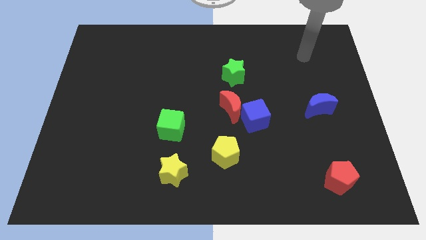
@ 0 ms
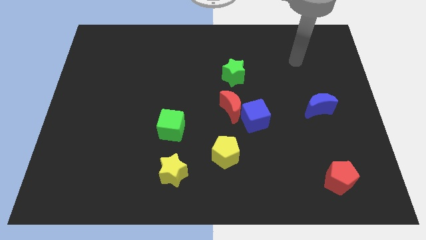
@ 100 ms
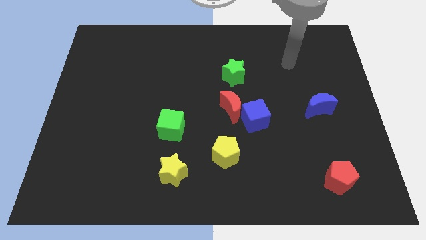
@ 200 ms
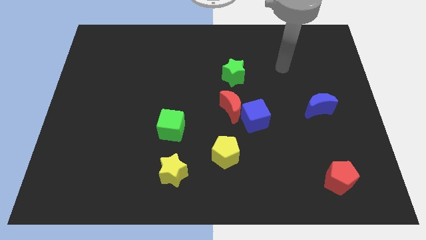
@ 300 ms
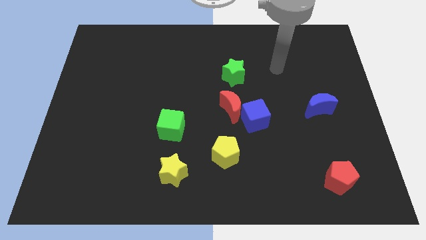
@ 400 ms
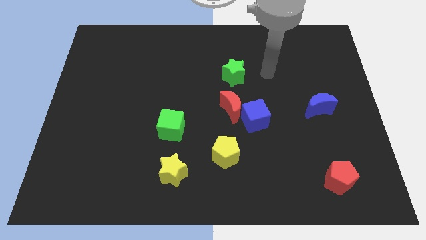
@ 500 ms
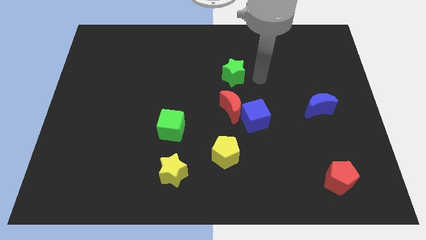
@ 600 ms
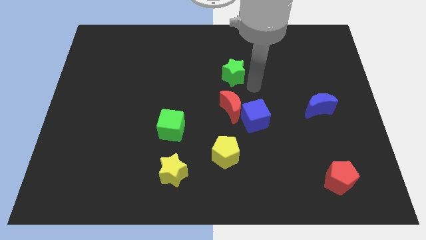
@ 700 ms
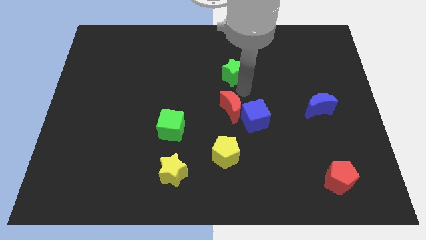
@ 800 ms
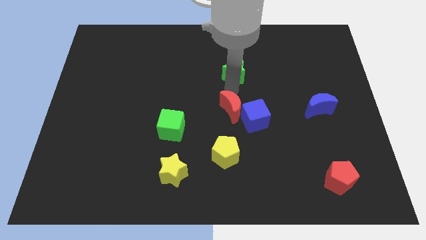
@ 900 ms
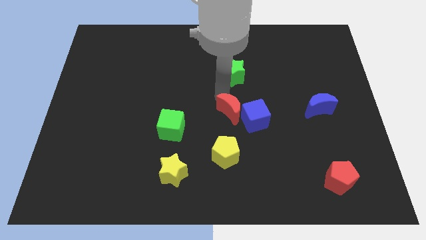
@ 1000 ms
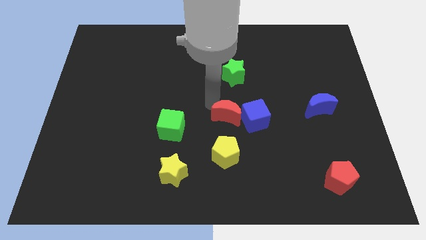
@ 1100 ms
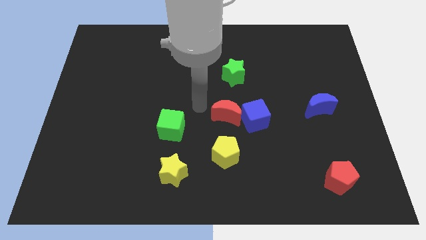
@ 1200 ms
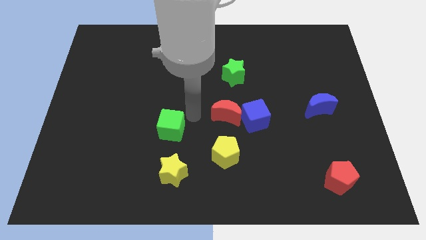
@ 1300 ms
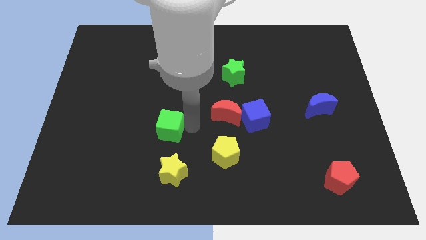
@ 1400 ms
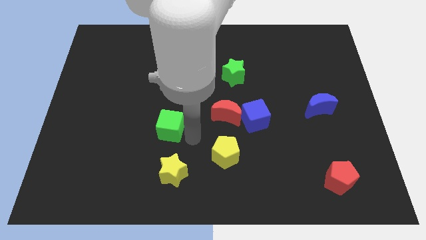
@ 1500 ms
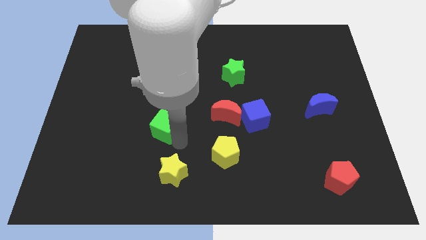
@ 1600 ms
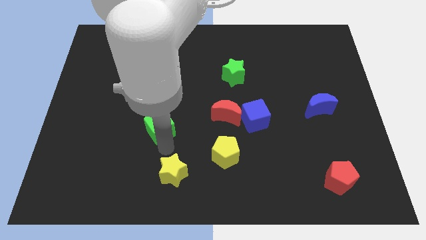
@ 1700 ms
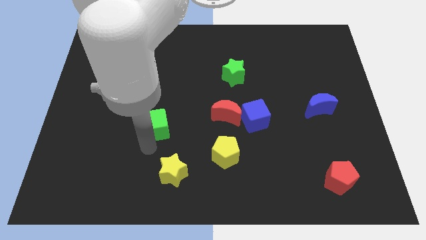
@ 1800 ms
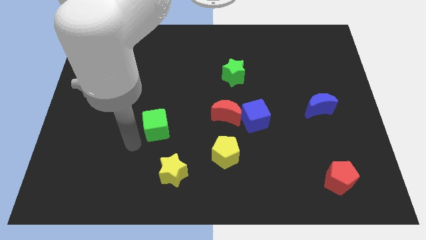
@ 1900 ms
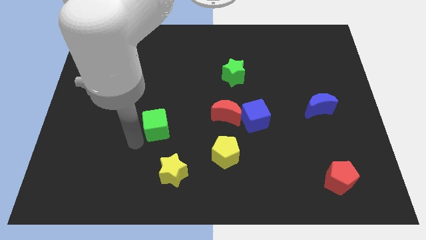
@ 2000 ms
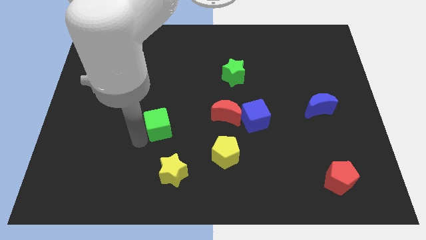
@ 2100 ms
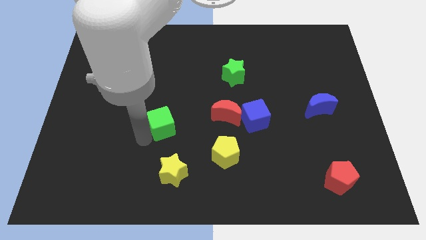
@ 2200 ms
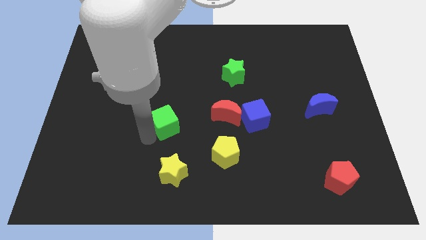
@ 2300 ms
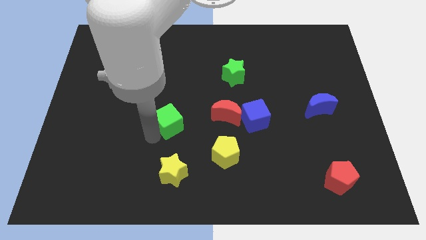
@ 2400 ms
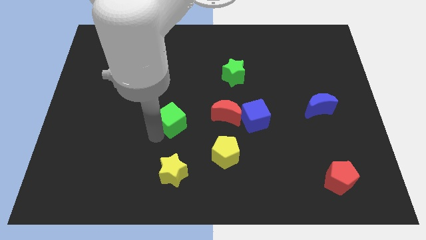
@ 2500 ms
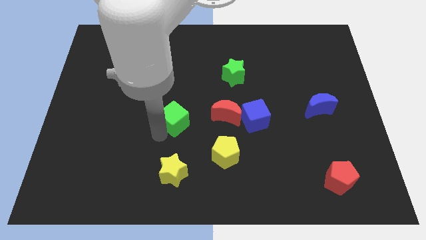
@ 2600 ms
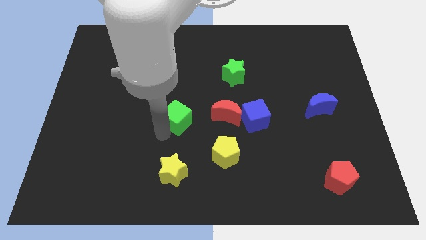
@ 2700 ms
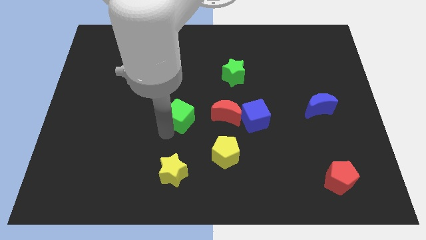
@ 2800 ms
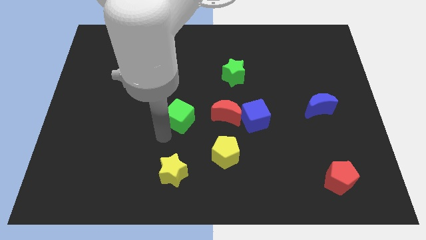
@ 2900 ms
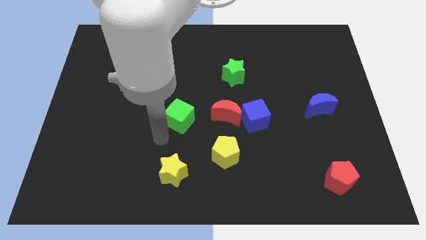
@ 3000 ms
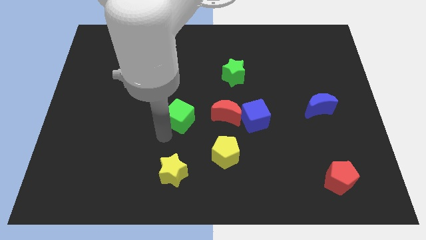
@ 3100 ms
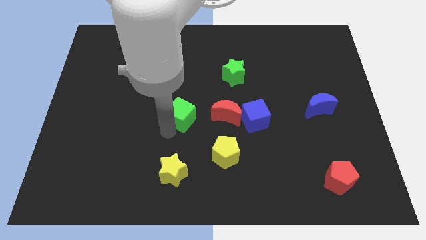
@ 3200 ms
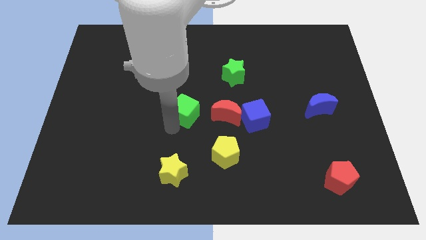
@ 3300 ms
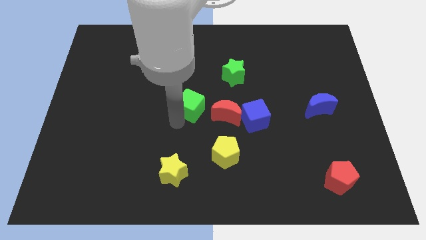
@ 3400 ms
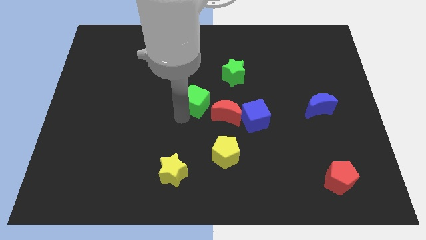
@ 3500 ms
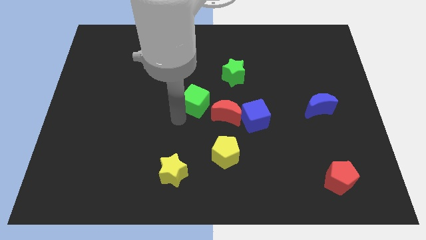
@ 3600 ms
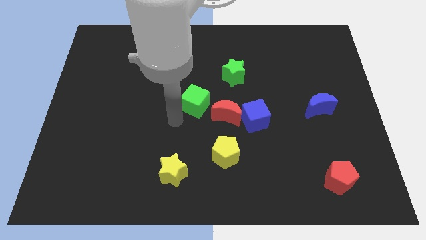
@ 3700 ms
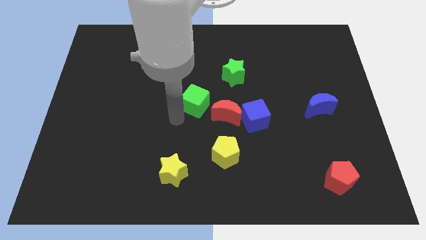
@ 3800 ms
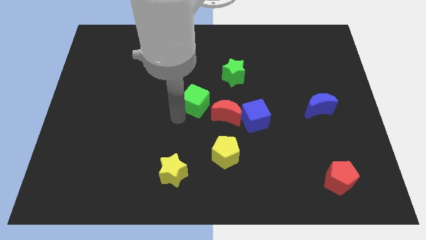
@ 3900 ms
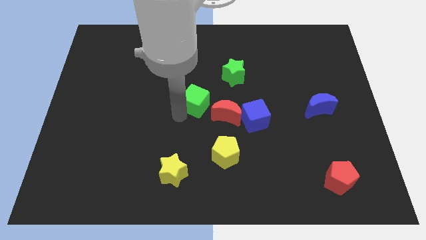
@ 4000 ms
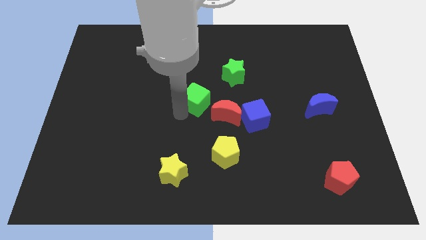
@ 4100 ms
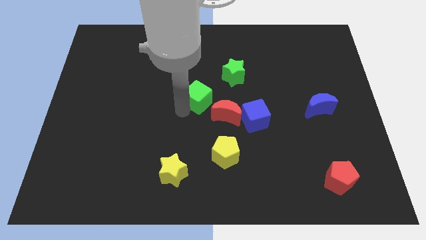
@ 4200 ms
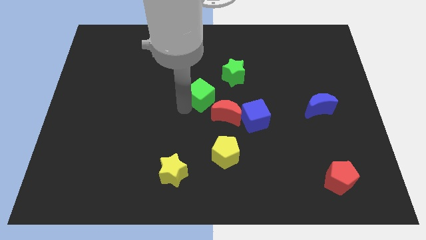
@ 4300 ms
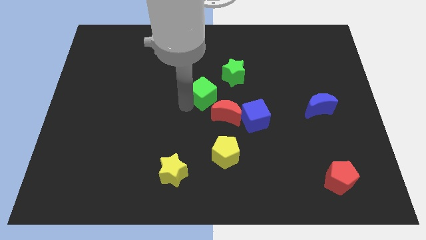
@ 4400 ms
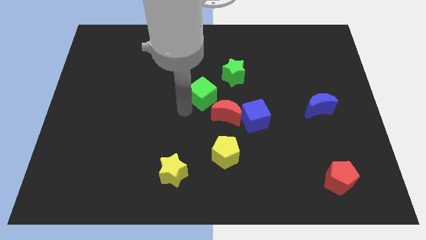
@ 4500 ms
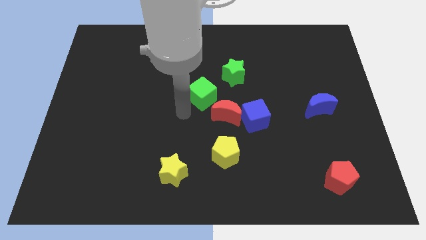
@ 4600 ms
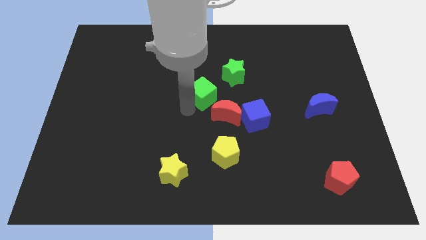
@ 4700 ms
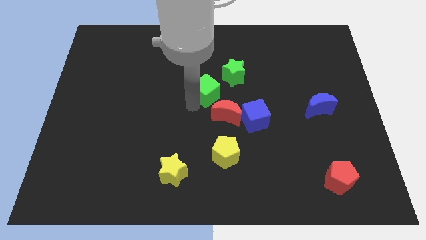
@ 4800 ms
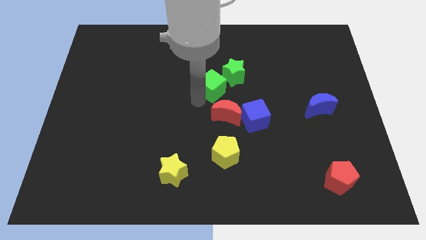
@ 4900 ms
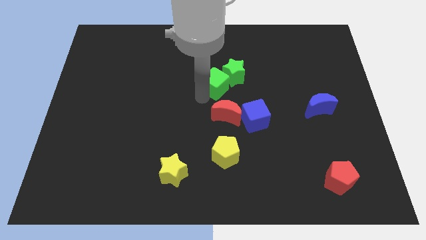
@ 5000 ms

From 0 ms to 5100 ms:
move the green cube to the green star

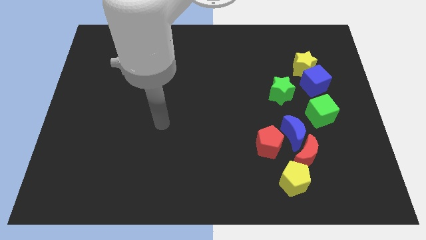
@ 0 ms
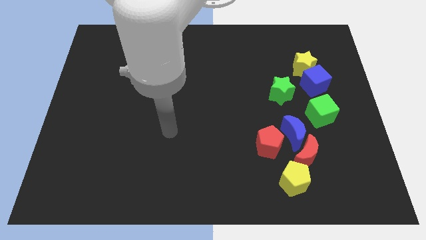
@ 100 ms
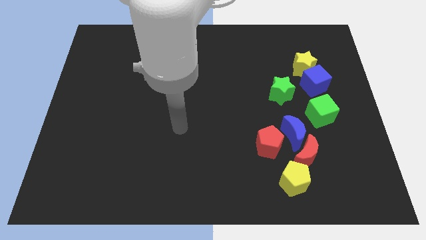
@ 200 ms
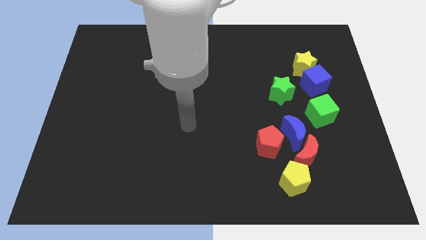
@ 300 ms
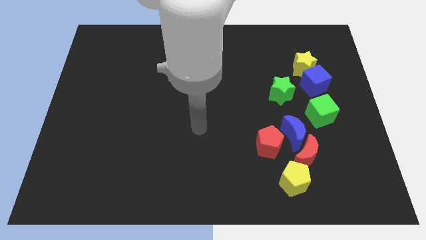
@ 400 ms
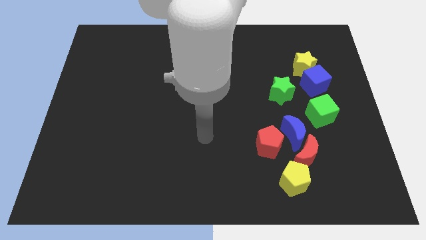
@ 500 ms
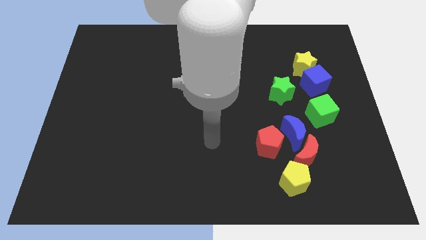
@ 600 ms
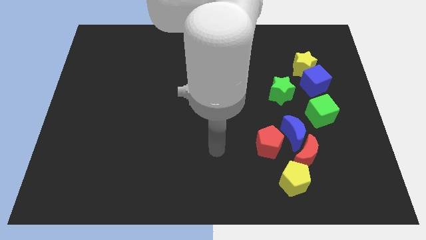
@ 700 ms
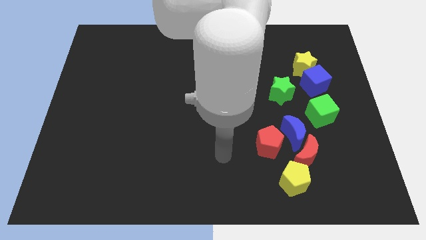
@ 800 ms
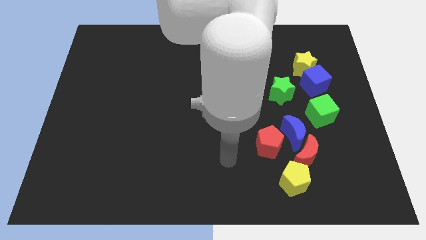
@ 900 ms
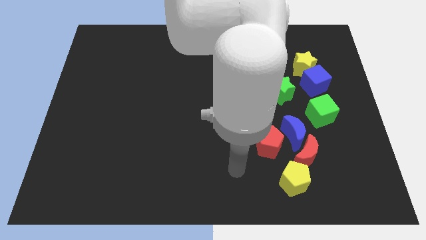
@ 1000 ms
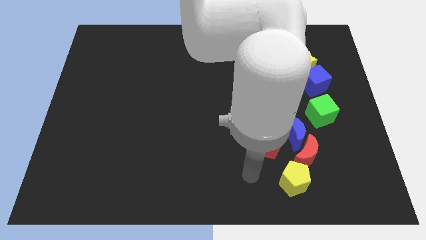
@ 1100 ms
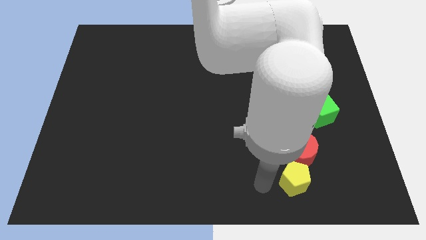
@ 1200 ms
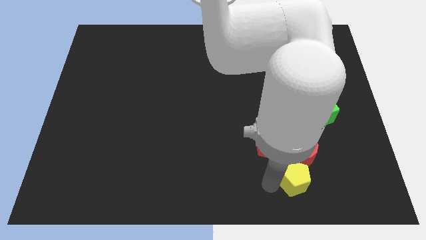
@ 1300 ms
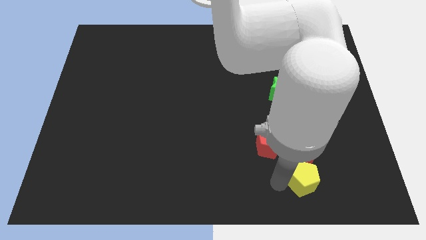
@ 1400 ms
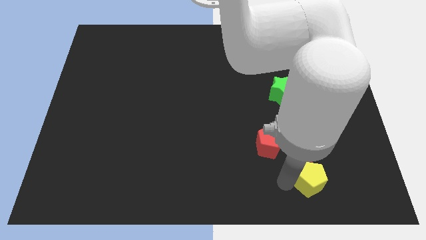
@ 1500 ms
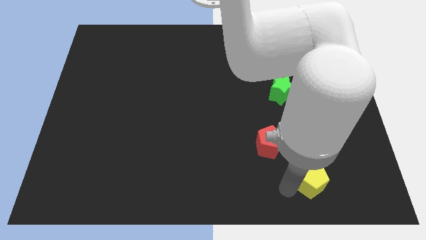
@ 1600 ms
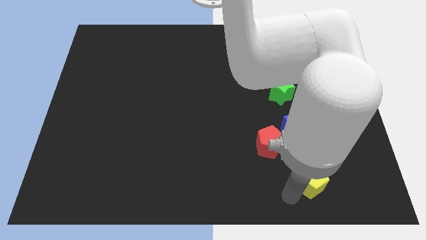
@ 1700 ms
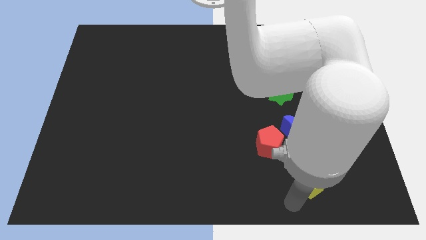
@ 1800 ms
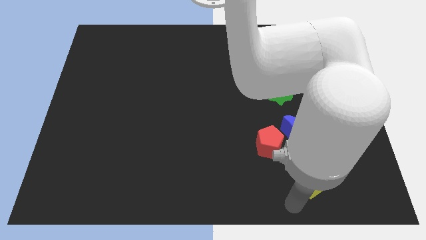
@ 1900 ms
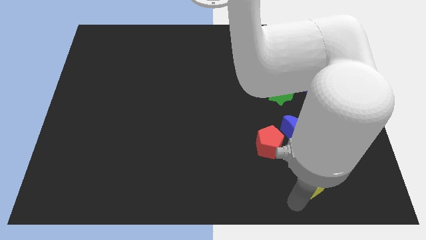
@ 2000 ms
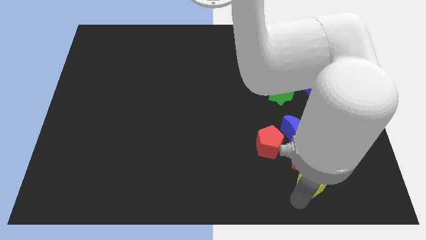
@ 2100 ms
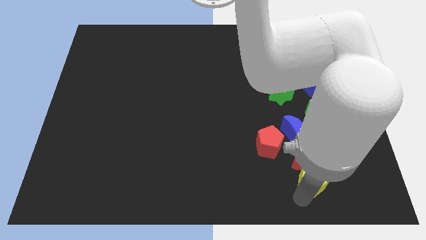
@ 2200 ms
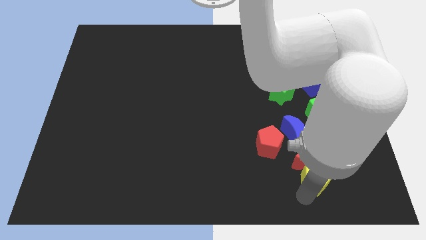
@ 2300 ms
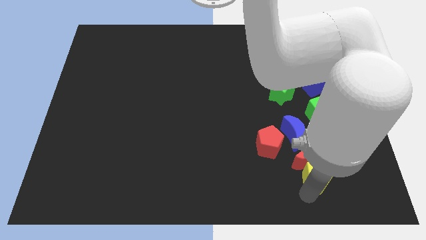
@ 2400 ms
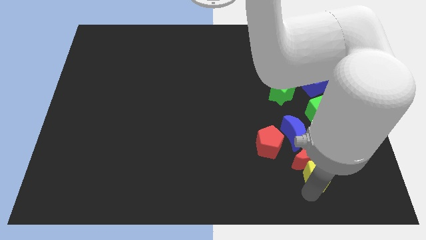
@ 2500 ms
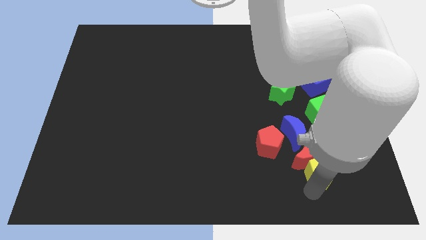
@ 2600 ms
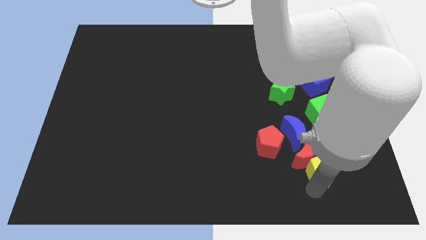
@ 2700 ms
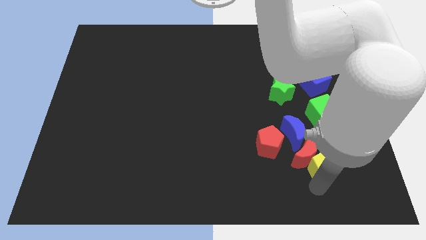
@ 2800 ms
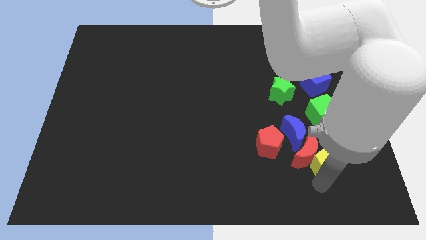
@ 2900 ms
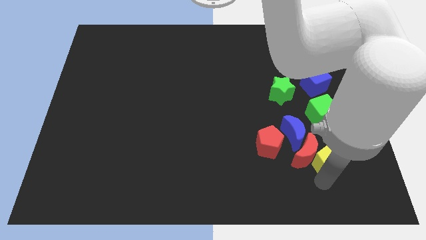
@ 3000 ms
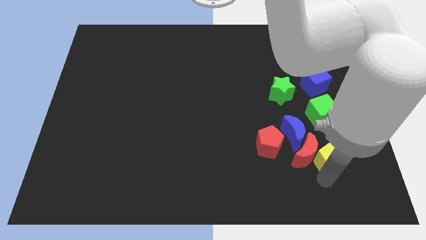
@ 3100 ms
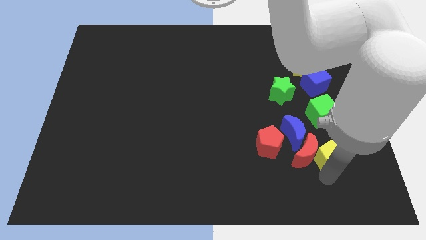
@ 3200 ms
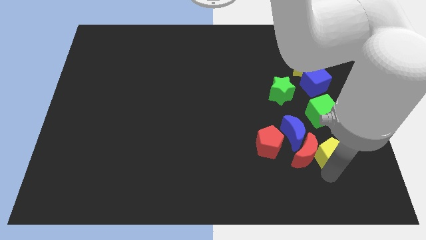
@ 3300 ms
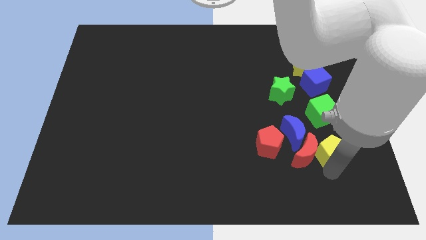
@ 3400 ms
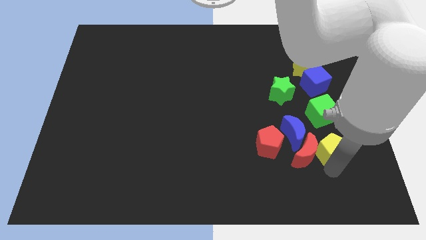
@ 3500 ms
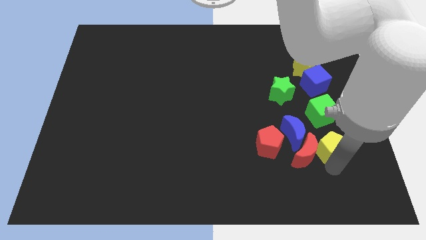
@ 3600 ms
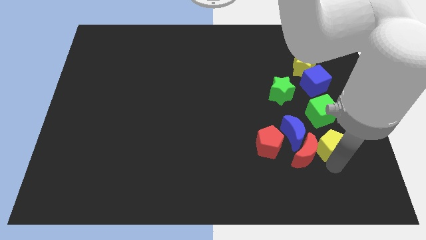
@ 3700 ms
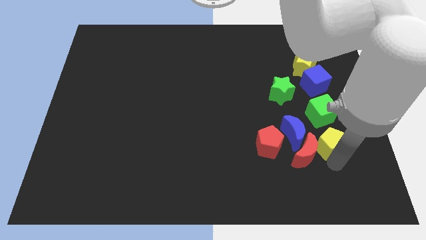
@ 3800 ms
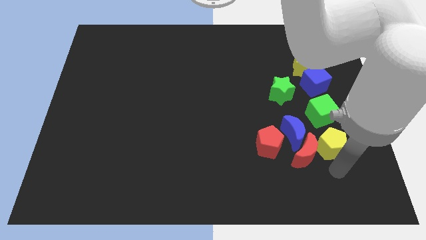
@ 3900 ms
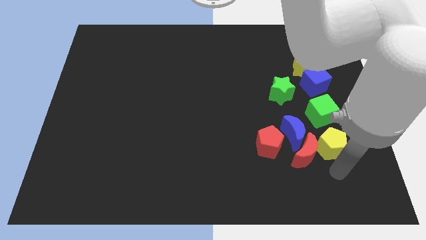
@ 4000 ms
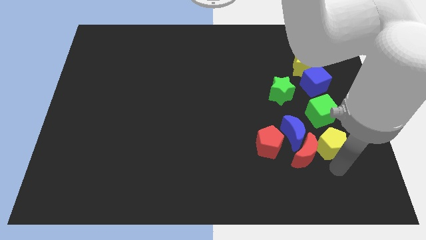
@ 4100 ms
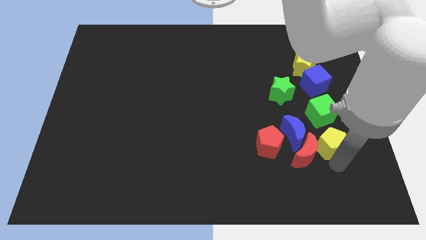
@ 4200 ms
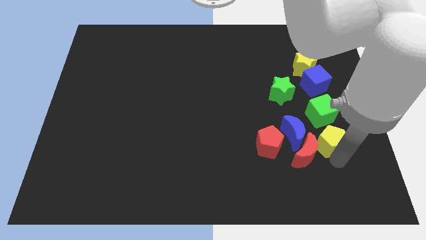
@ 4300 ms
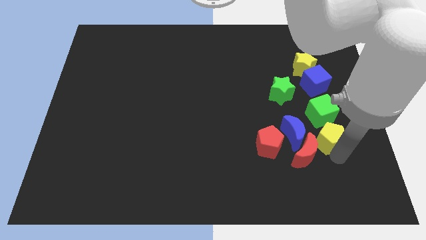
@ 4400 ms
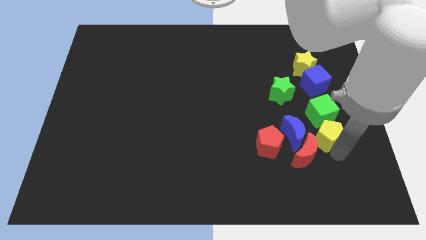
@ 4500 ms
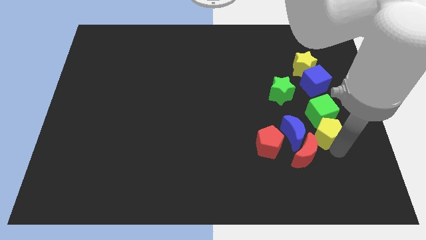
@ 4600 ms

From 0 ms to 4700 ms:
push the yellow pentagon next to the green cube
